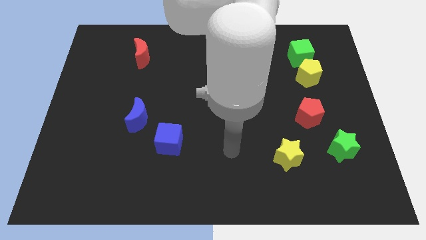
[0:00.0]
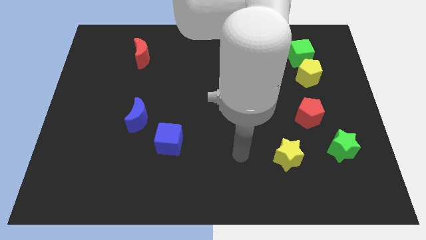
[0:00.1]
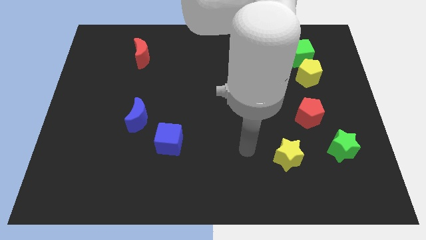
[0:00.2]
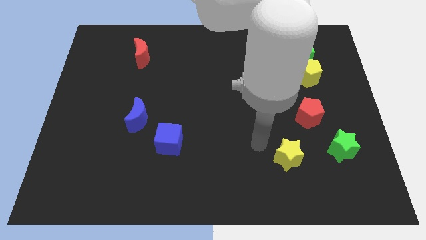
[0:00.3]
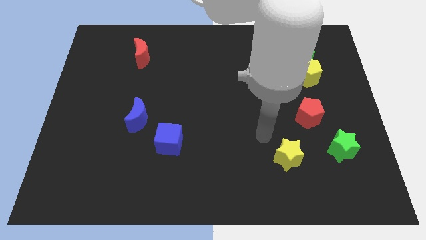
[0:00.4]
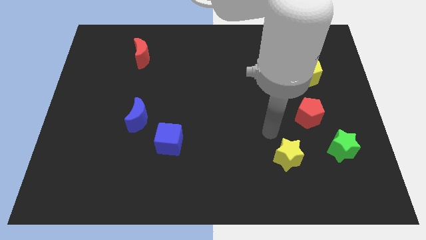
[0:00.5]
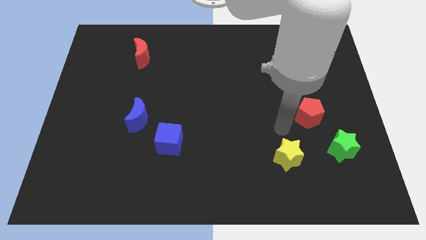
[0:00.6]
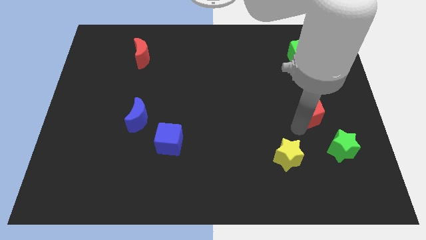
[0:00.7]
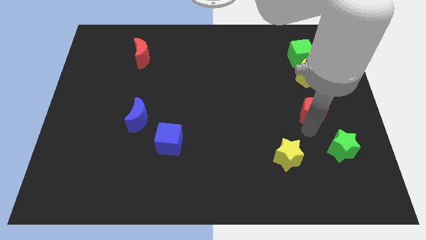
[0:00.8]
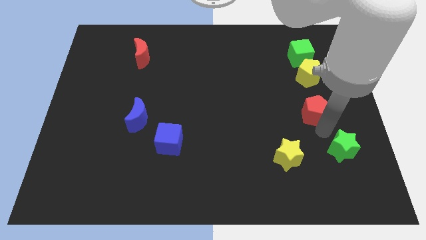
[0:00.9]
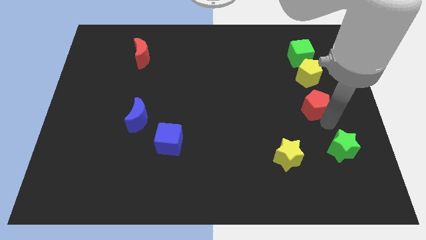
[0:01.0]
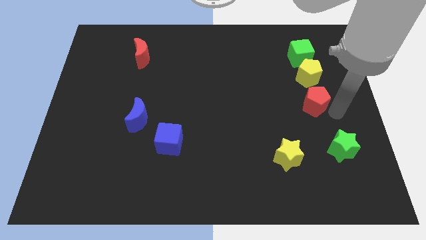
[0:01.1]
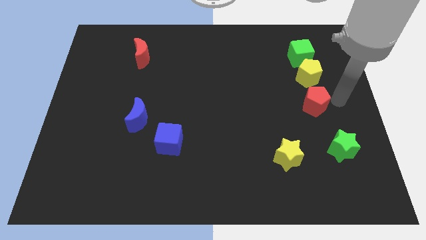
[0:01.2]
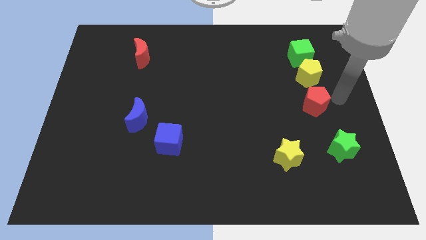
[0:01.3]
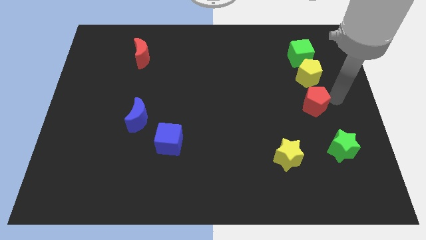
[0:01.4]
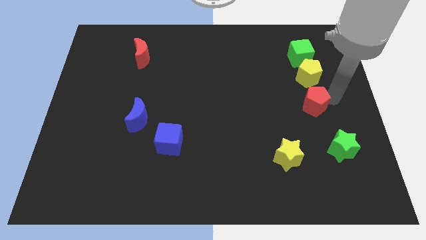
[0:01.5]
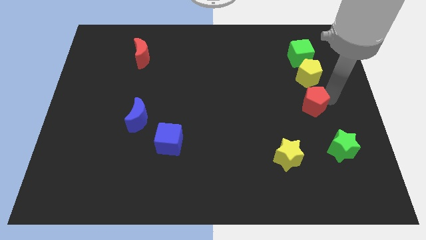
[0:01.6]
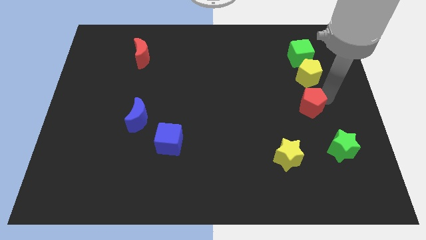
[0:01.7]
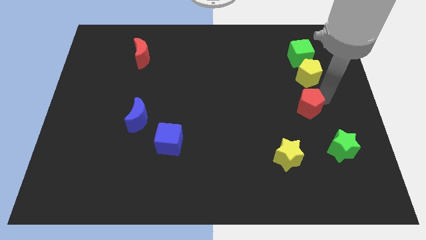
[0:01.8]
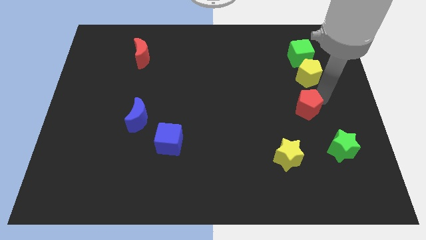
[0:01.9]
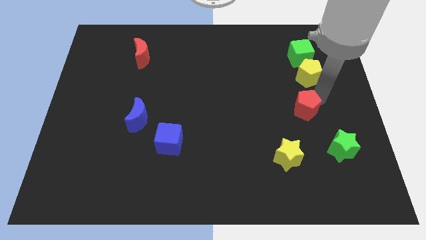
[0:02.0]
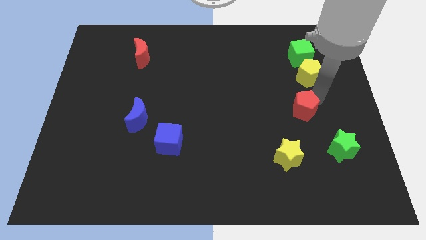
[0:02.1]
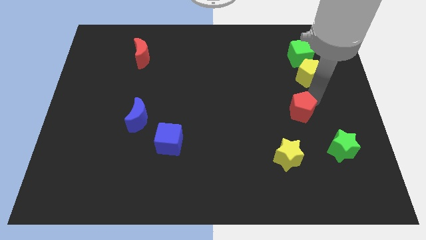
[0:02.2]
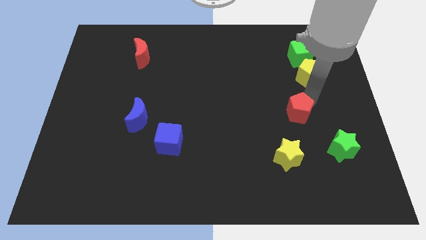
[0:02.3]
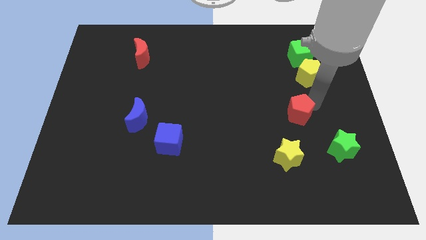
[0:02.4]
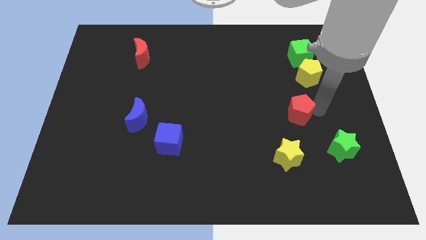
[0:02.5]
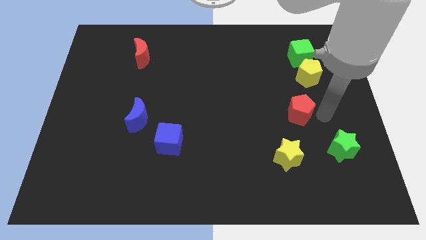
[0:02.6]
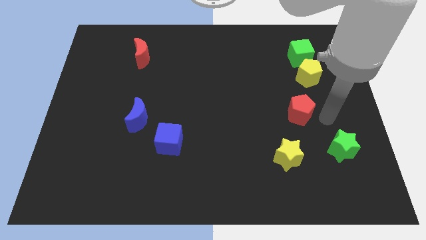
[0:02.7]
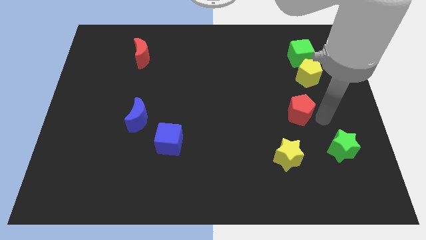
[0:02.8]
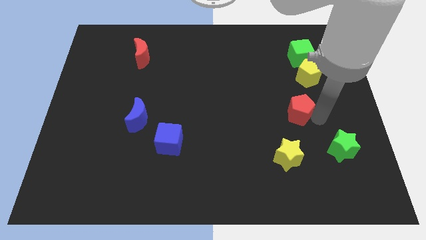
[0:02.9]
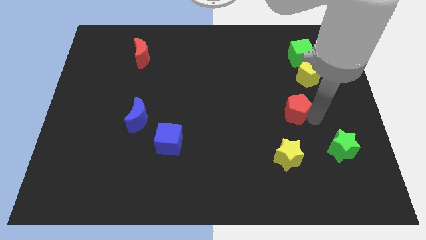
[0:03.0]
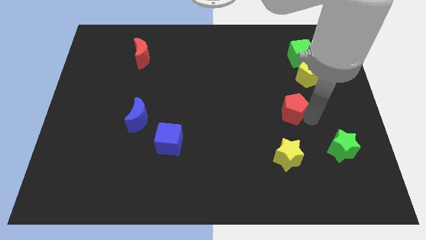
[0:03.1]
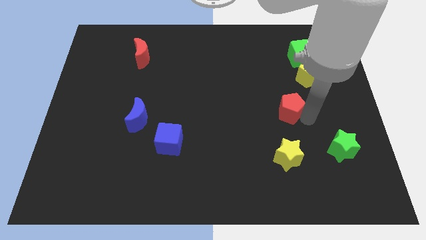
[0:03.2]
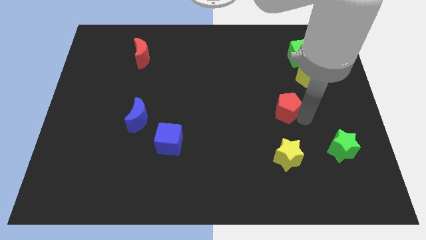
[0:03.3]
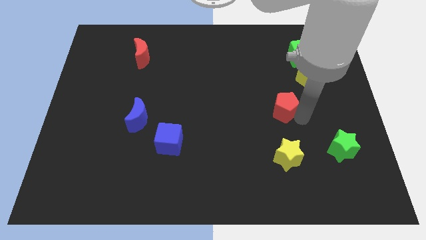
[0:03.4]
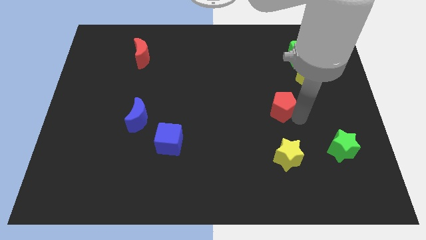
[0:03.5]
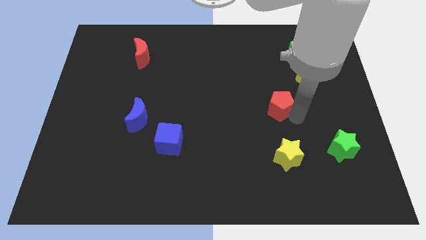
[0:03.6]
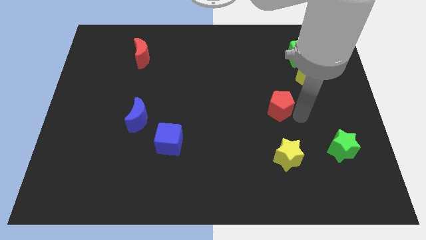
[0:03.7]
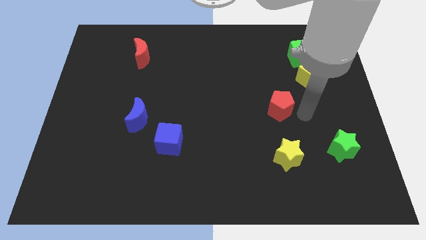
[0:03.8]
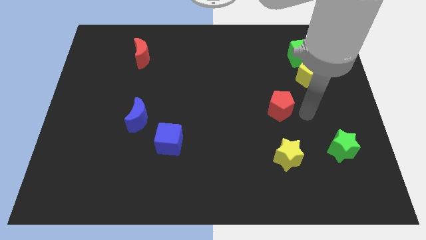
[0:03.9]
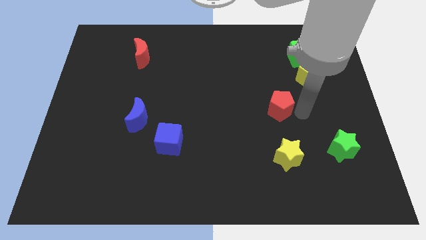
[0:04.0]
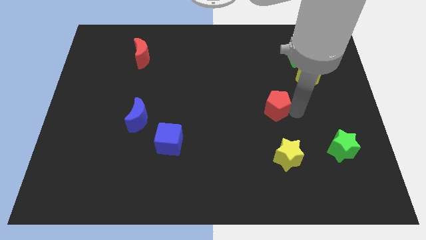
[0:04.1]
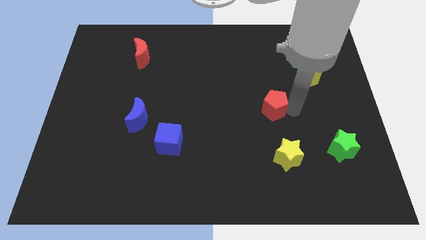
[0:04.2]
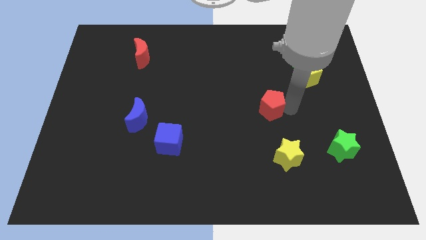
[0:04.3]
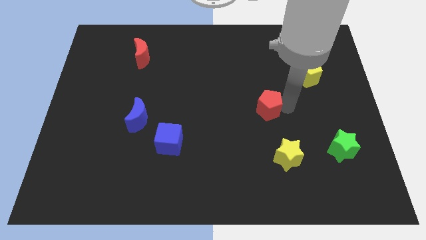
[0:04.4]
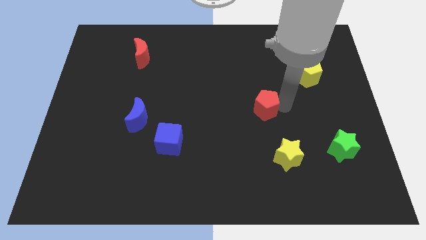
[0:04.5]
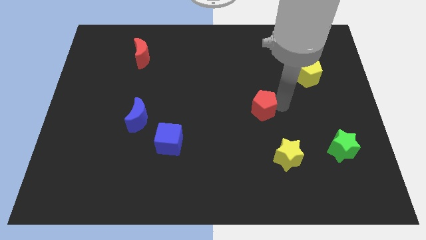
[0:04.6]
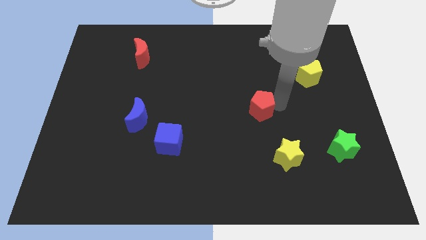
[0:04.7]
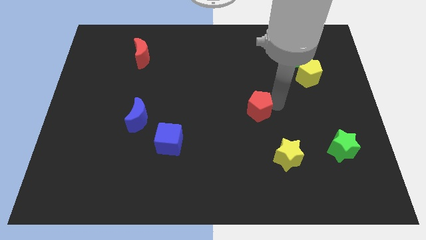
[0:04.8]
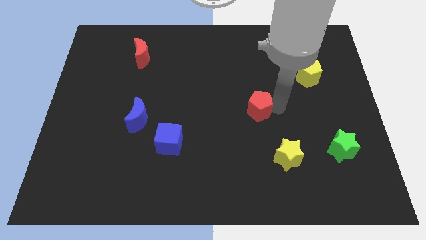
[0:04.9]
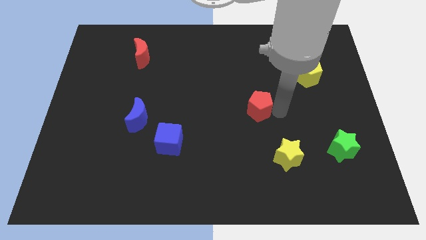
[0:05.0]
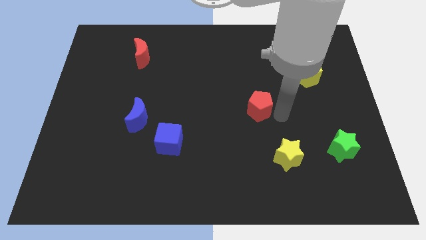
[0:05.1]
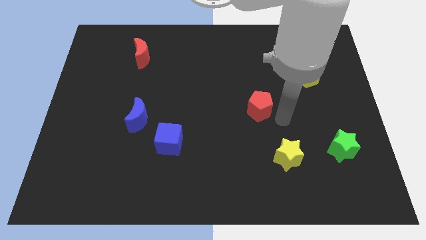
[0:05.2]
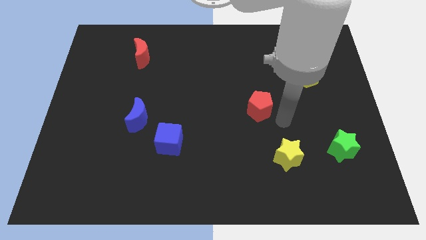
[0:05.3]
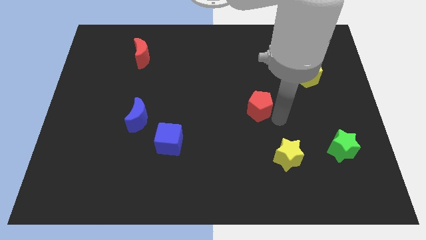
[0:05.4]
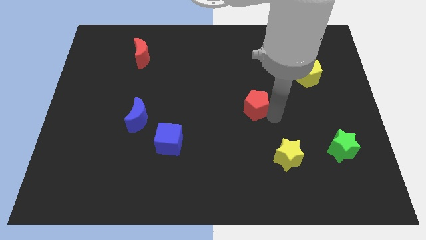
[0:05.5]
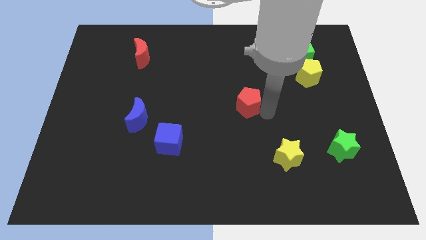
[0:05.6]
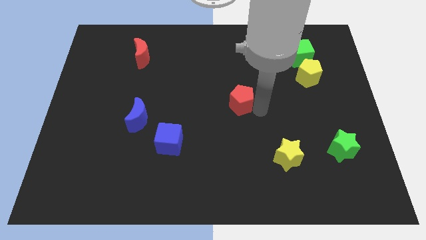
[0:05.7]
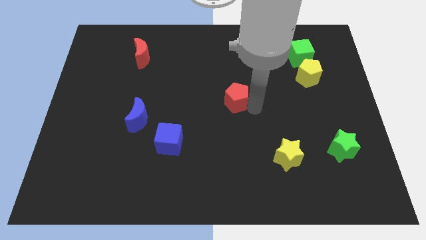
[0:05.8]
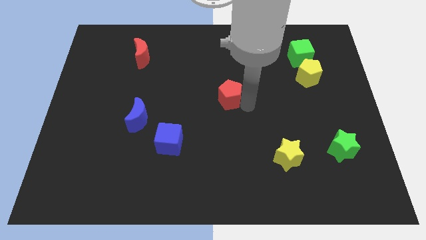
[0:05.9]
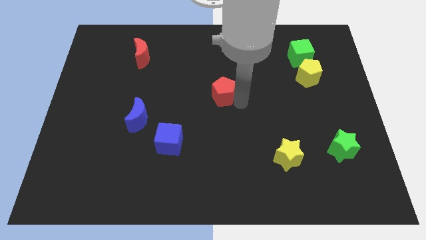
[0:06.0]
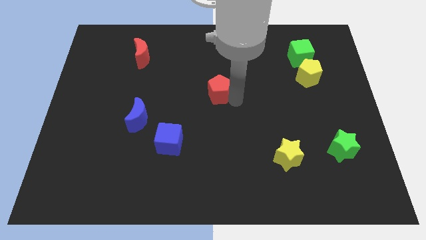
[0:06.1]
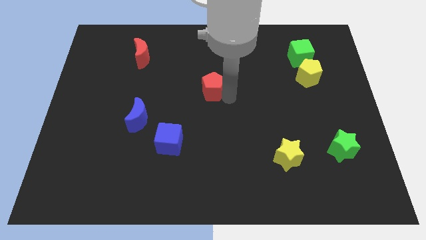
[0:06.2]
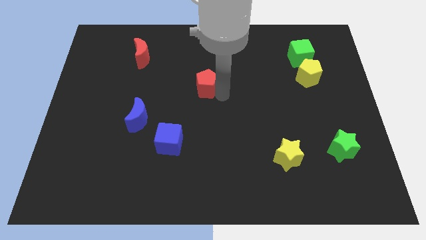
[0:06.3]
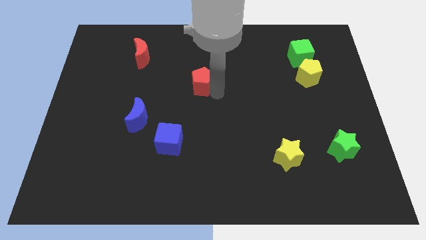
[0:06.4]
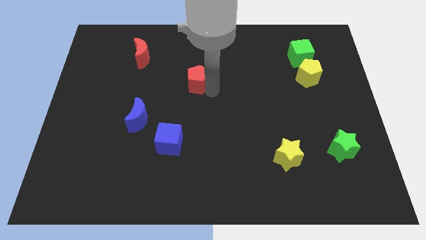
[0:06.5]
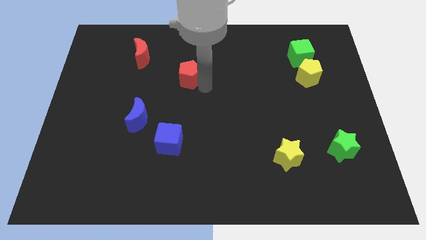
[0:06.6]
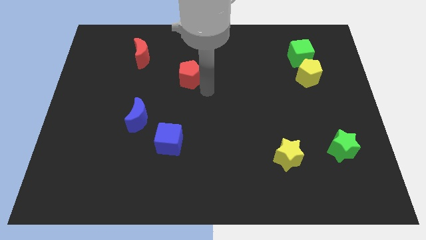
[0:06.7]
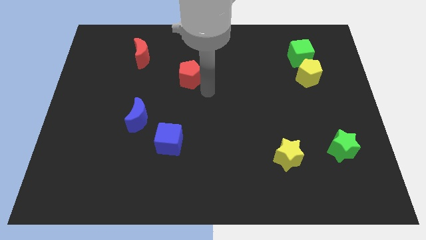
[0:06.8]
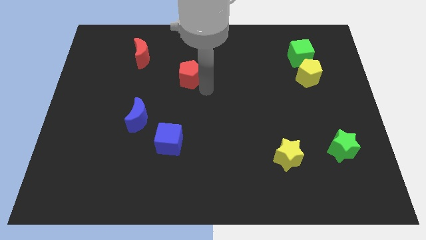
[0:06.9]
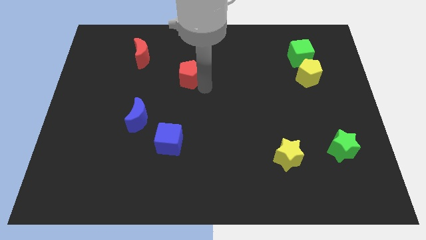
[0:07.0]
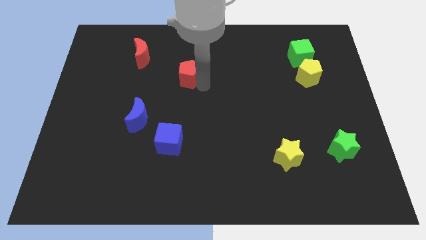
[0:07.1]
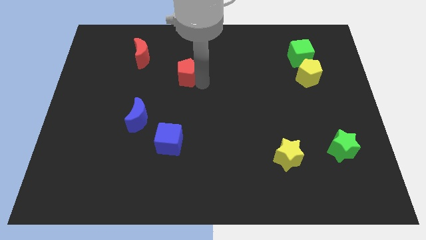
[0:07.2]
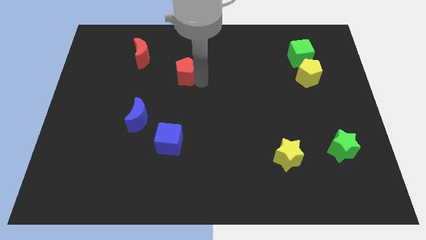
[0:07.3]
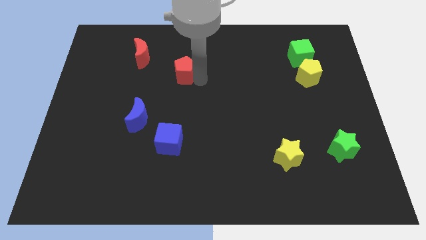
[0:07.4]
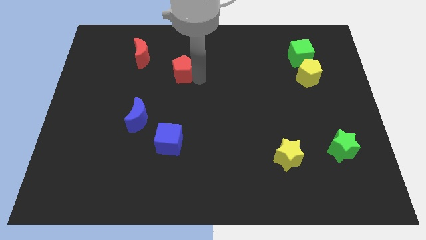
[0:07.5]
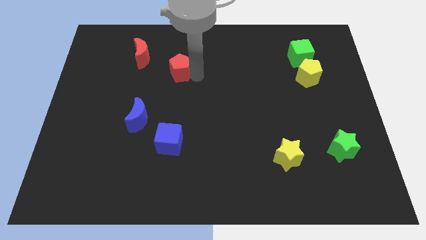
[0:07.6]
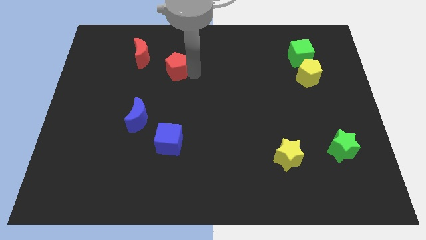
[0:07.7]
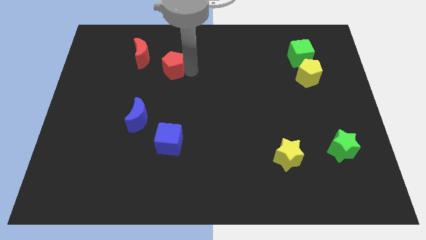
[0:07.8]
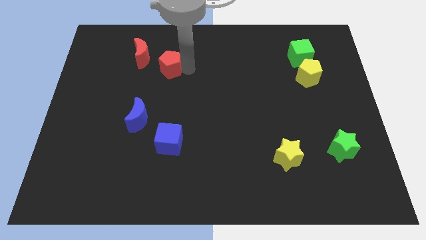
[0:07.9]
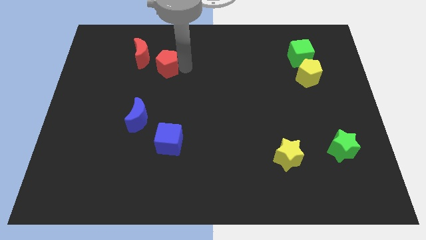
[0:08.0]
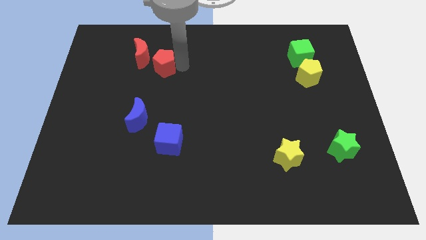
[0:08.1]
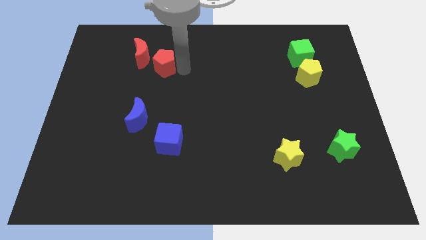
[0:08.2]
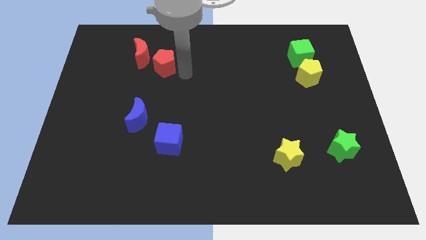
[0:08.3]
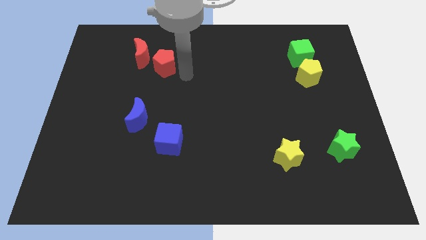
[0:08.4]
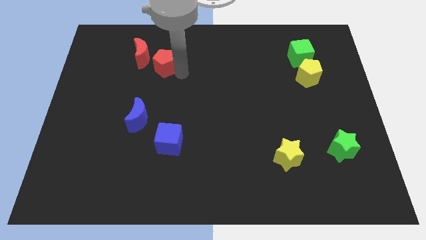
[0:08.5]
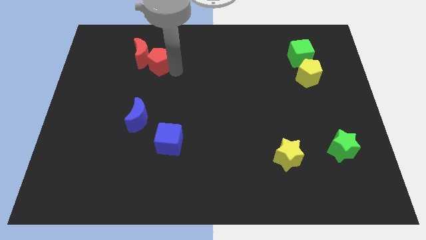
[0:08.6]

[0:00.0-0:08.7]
slide the red pentagon close to the red moon
